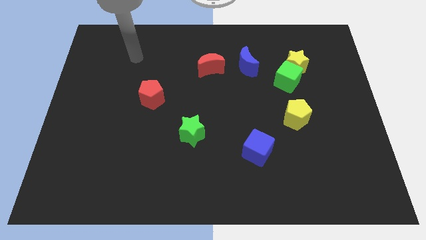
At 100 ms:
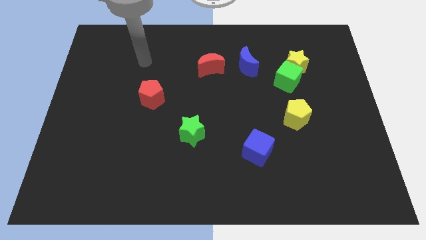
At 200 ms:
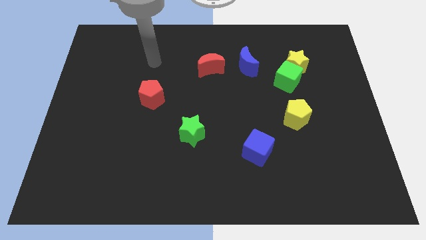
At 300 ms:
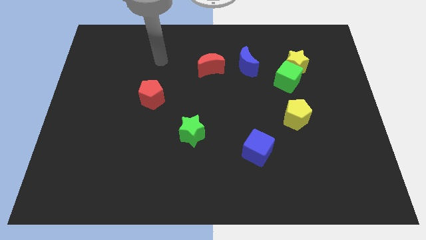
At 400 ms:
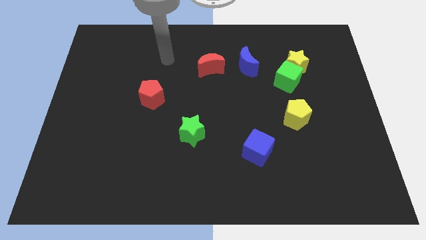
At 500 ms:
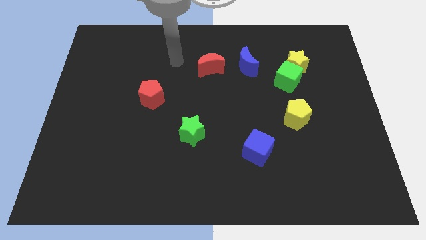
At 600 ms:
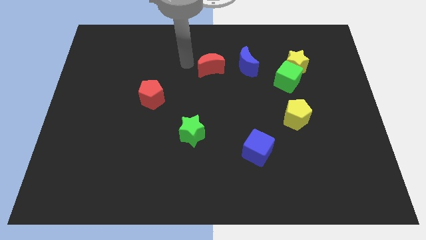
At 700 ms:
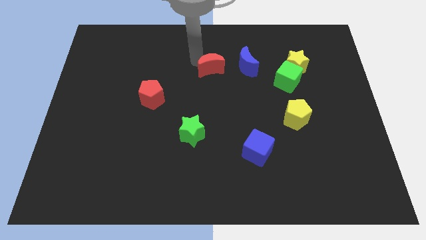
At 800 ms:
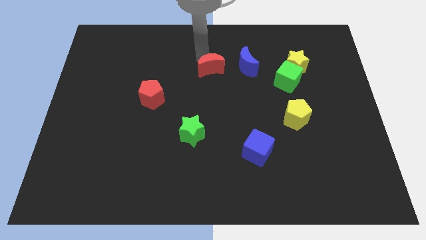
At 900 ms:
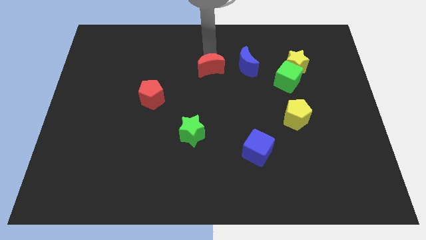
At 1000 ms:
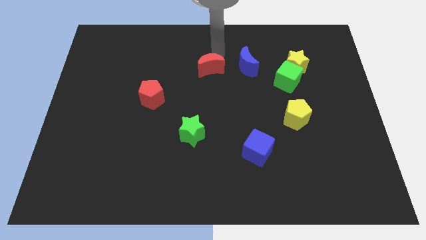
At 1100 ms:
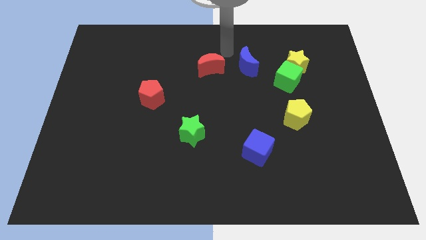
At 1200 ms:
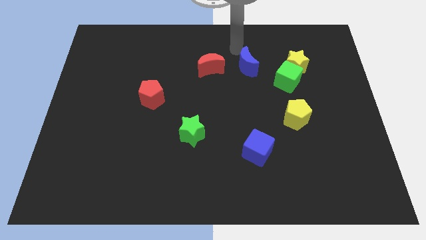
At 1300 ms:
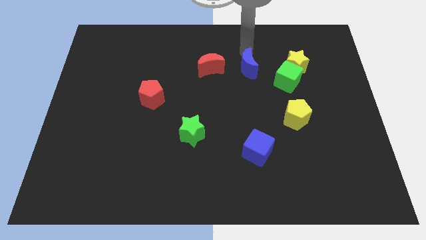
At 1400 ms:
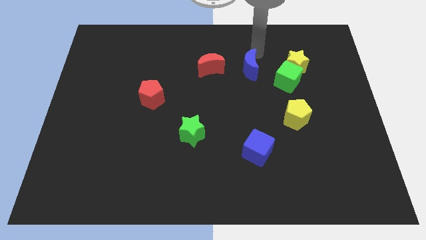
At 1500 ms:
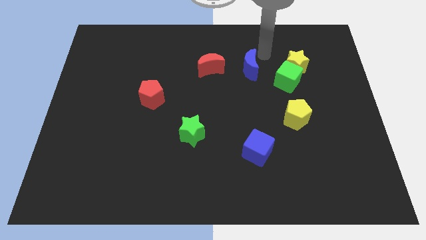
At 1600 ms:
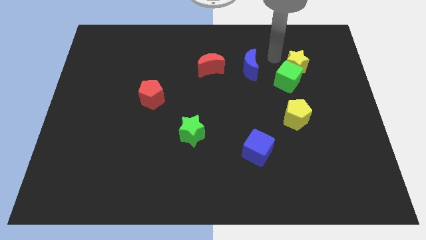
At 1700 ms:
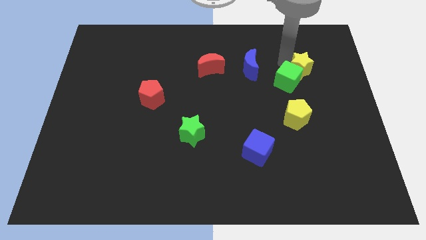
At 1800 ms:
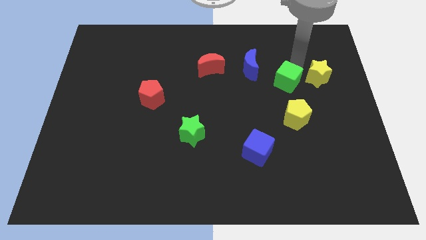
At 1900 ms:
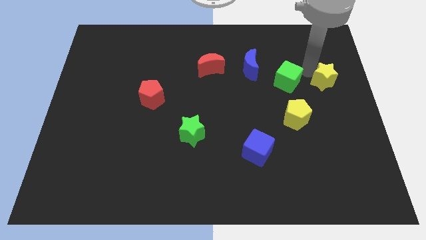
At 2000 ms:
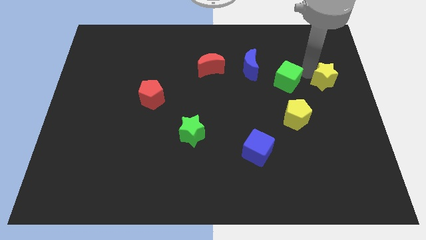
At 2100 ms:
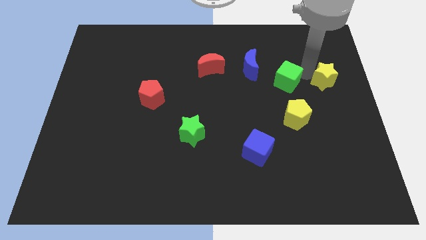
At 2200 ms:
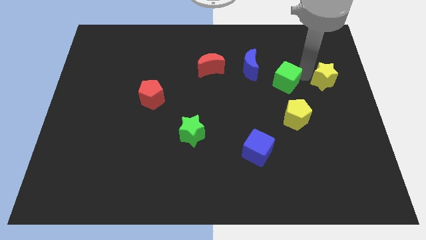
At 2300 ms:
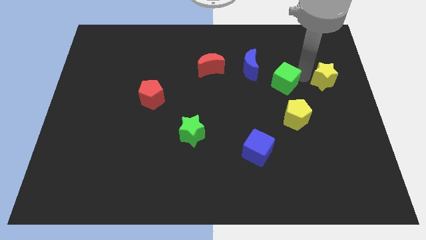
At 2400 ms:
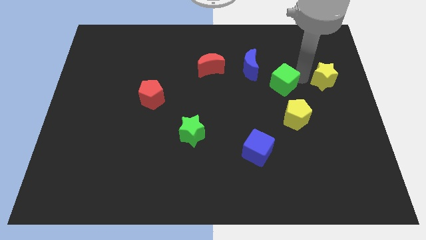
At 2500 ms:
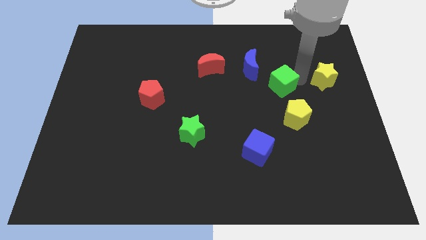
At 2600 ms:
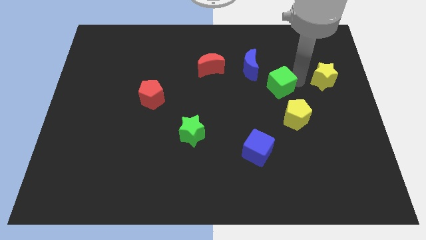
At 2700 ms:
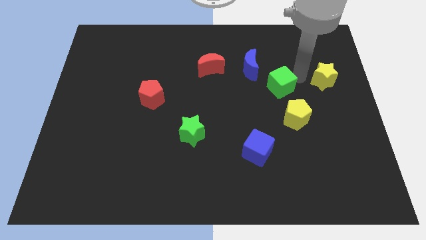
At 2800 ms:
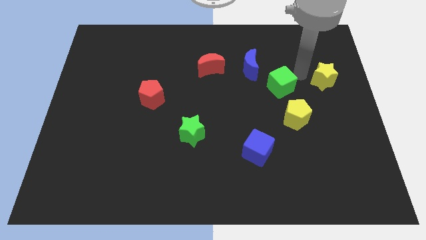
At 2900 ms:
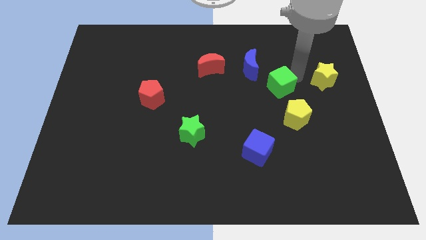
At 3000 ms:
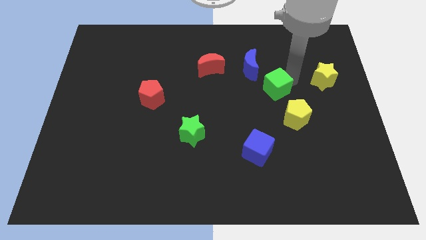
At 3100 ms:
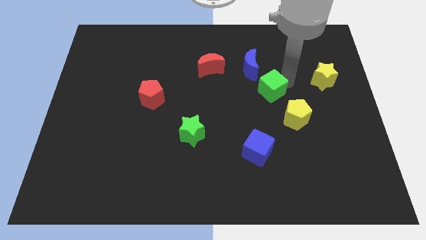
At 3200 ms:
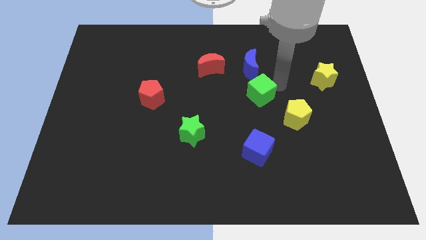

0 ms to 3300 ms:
slightly push the green cube down and then to the left

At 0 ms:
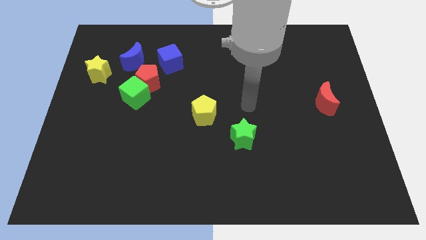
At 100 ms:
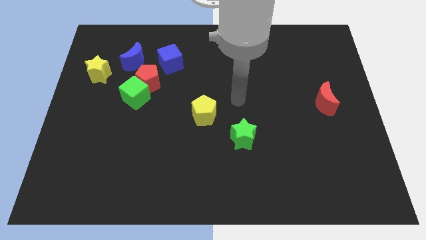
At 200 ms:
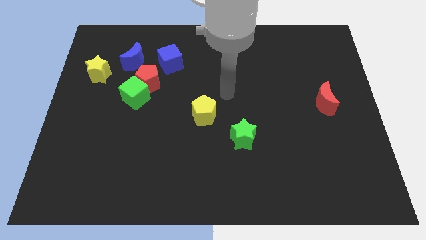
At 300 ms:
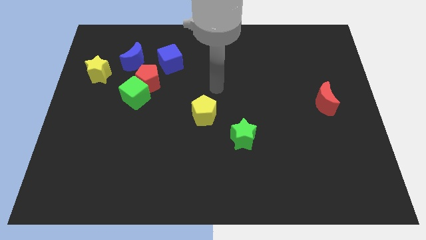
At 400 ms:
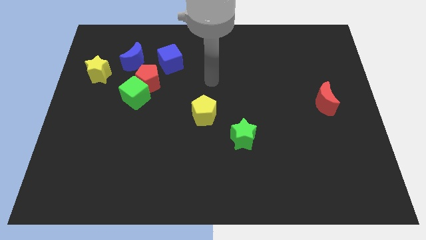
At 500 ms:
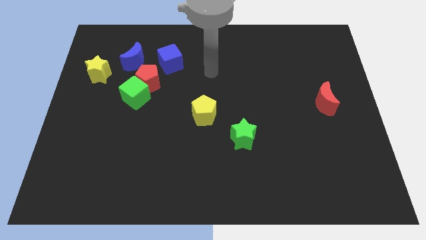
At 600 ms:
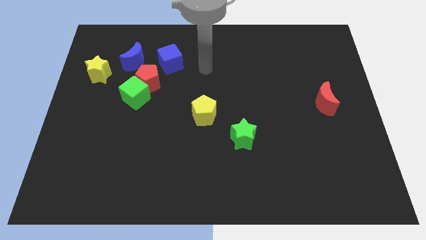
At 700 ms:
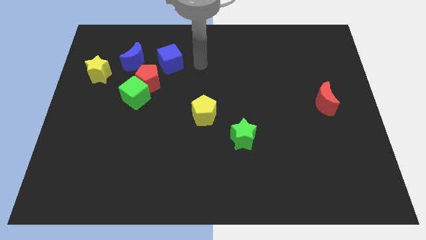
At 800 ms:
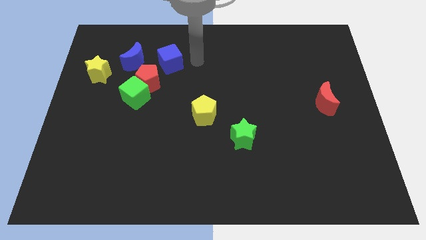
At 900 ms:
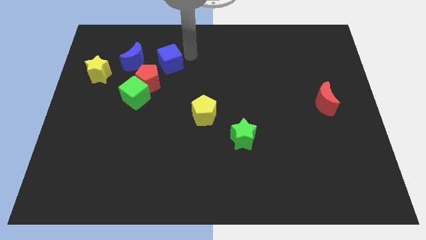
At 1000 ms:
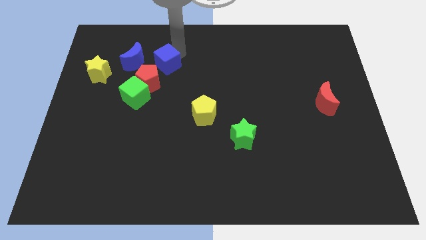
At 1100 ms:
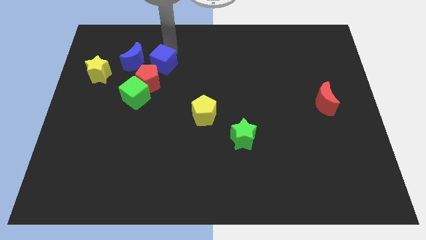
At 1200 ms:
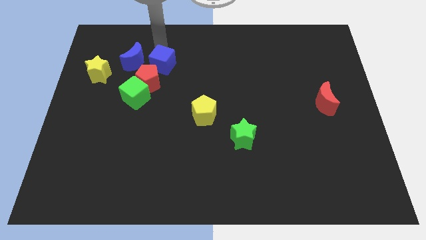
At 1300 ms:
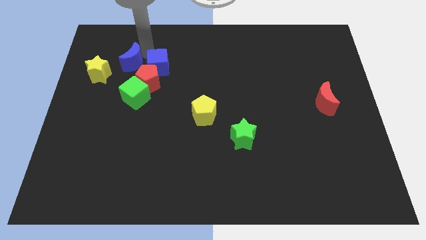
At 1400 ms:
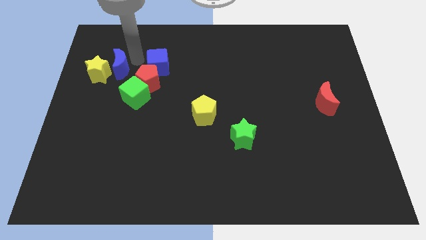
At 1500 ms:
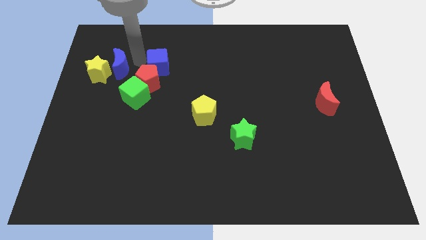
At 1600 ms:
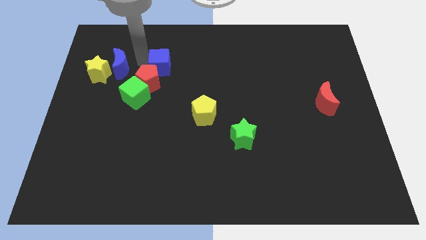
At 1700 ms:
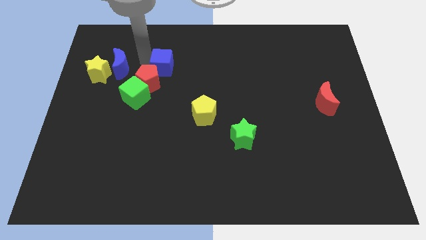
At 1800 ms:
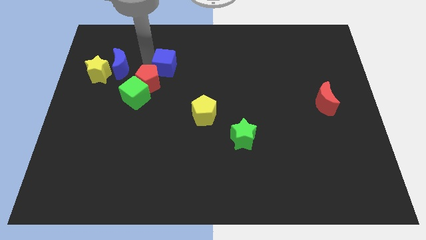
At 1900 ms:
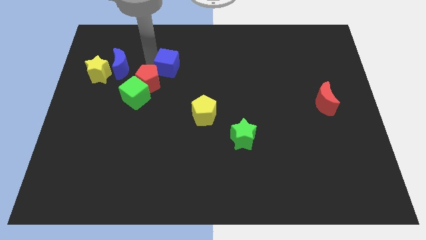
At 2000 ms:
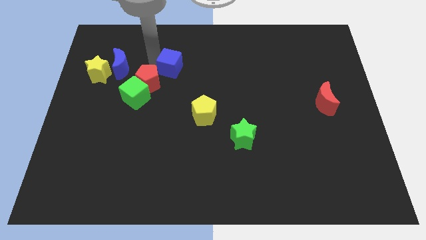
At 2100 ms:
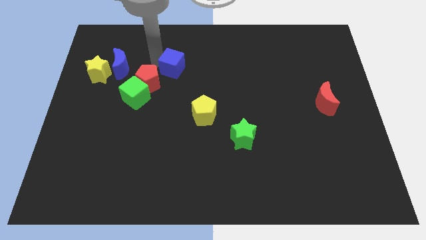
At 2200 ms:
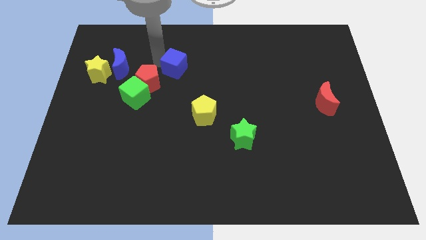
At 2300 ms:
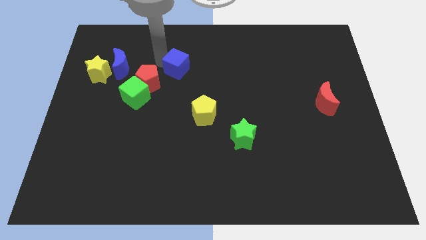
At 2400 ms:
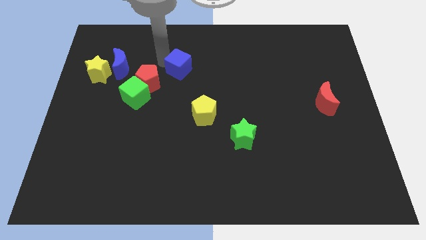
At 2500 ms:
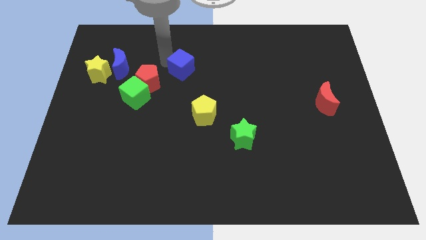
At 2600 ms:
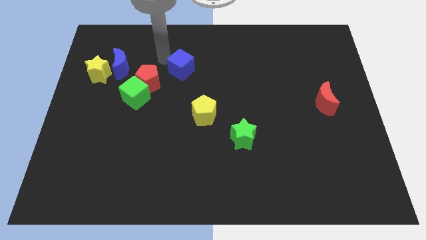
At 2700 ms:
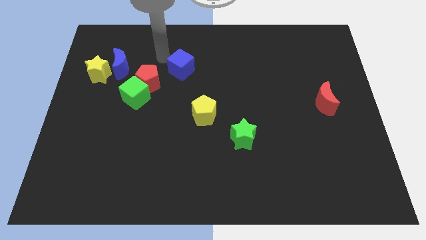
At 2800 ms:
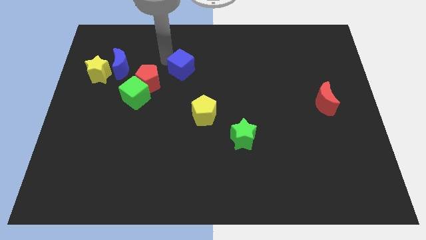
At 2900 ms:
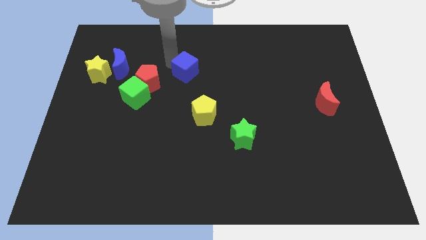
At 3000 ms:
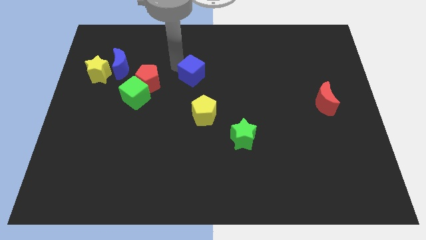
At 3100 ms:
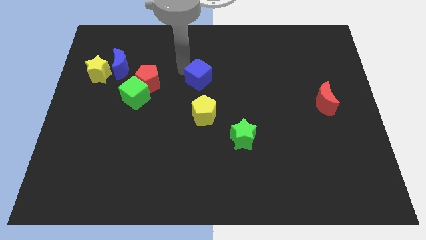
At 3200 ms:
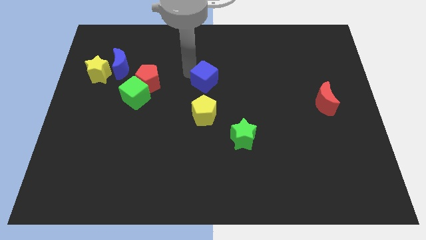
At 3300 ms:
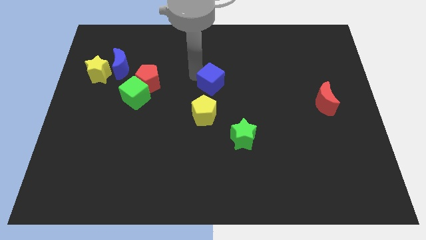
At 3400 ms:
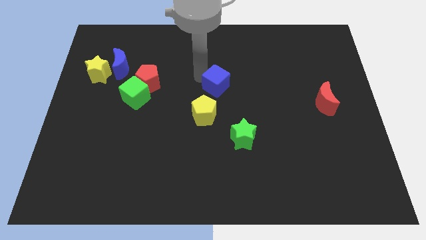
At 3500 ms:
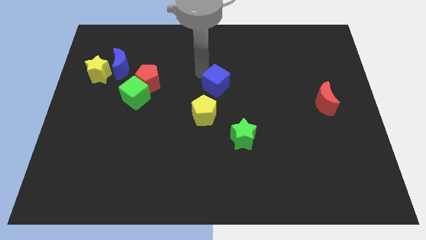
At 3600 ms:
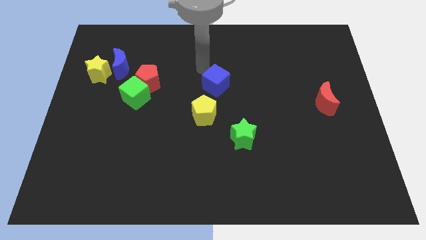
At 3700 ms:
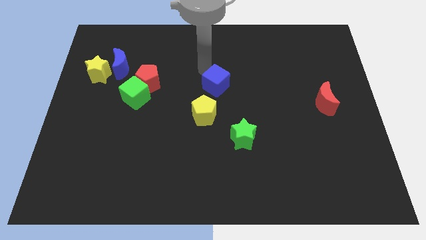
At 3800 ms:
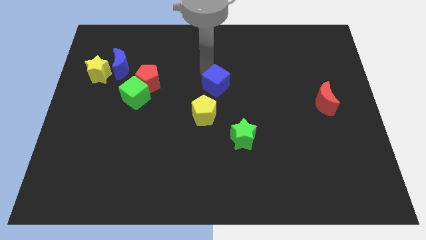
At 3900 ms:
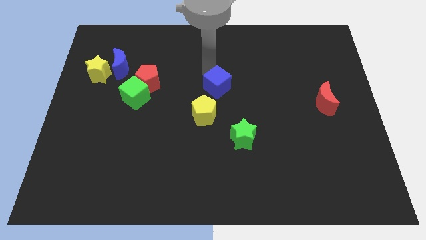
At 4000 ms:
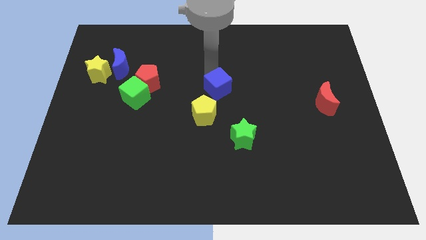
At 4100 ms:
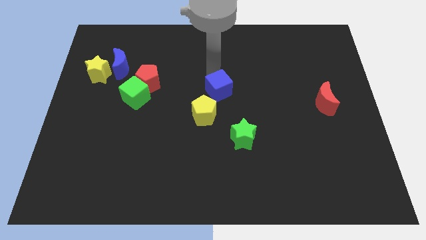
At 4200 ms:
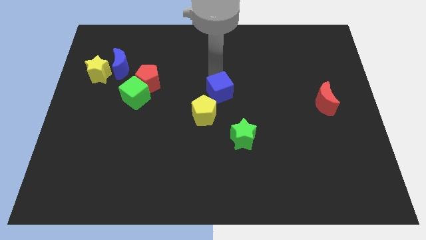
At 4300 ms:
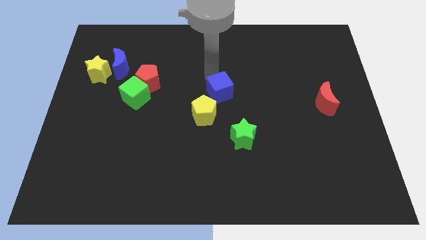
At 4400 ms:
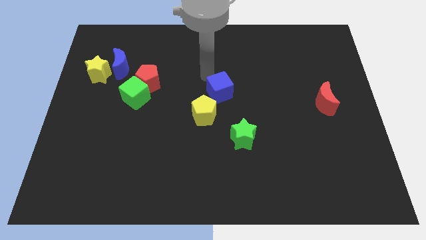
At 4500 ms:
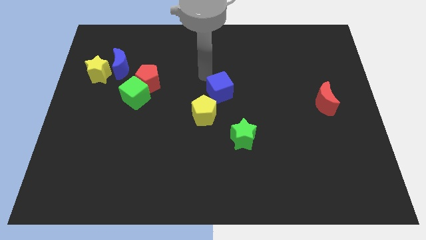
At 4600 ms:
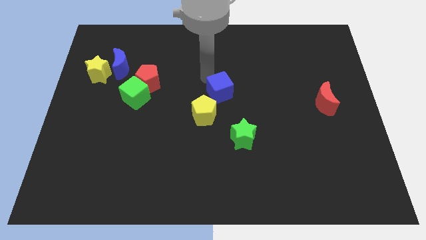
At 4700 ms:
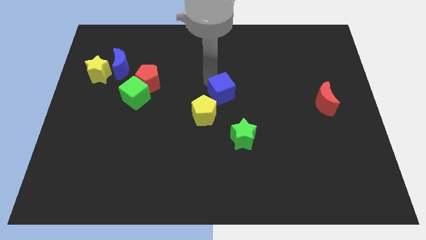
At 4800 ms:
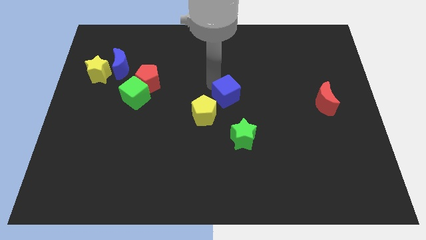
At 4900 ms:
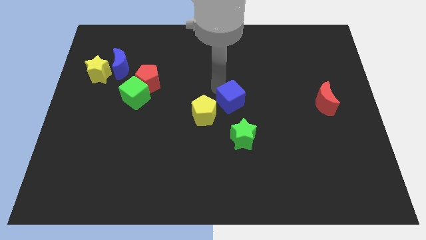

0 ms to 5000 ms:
move the blue cube diagonally down and to the right

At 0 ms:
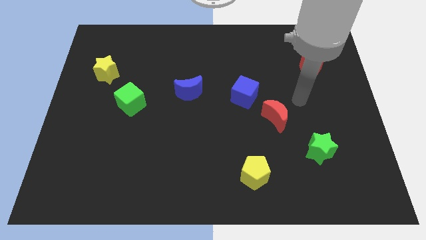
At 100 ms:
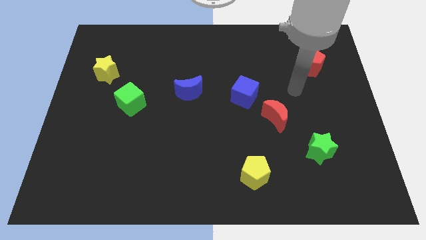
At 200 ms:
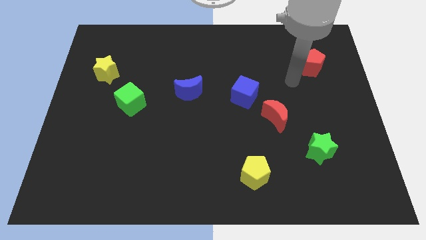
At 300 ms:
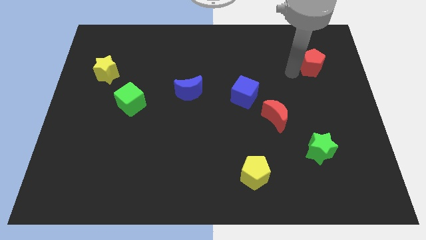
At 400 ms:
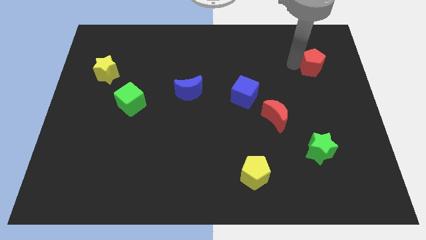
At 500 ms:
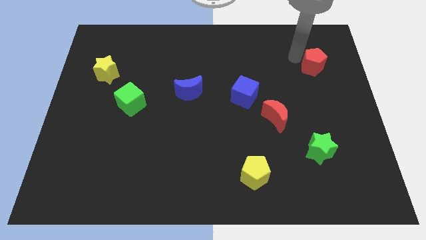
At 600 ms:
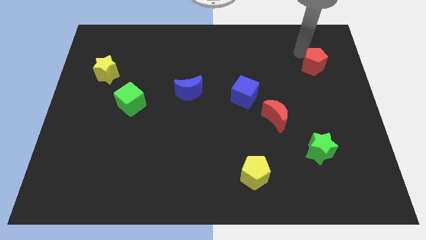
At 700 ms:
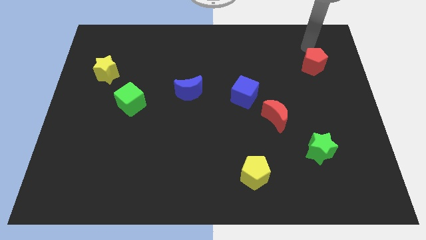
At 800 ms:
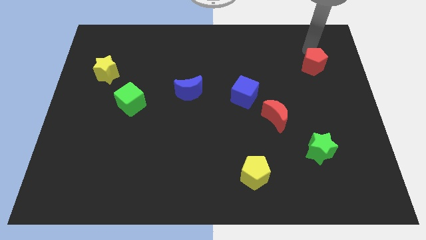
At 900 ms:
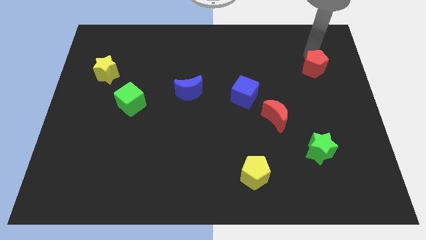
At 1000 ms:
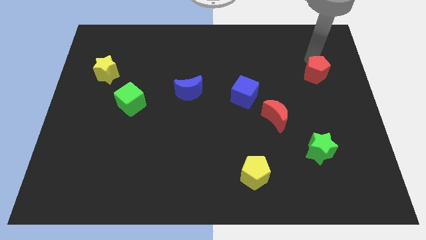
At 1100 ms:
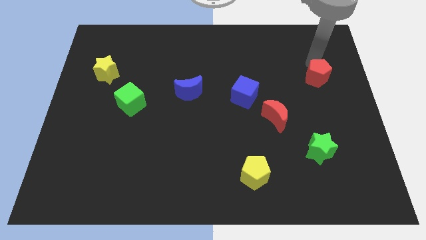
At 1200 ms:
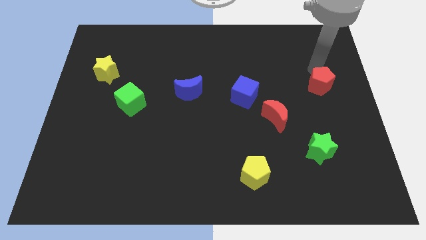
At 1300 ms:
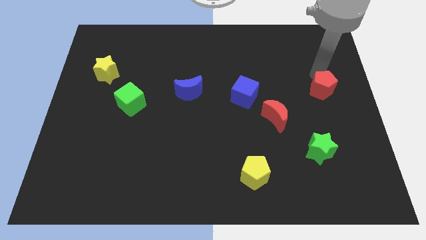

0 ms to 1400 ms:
slide the red pentagon downwards slightly
